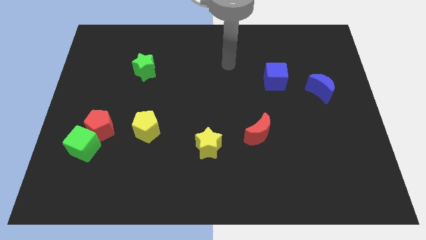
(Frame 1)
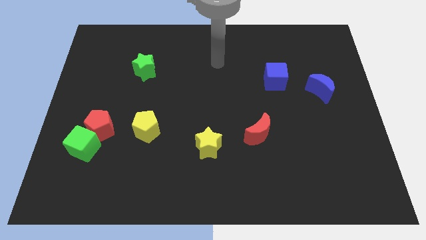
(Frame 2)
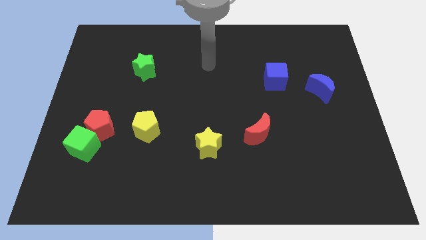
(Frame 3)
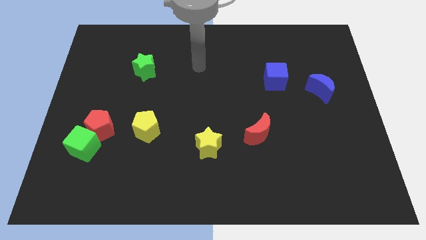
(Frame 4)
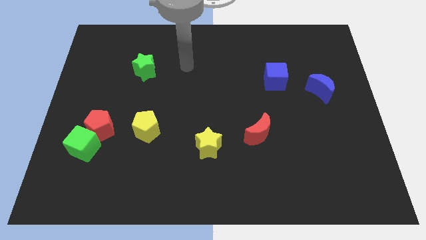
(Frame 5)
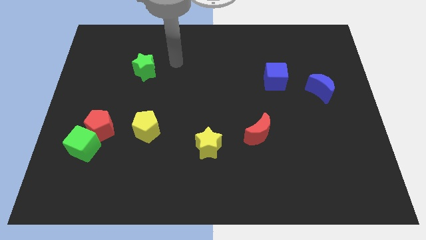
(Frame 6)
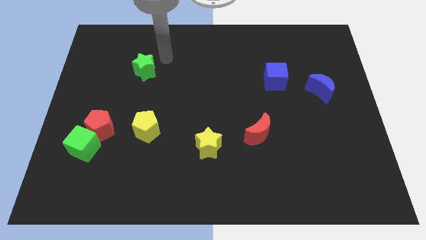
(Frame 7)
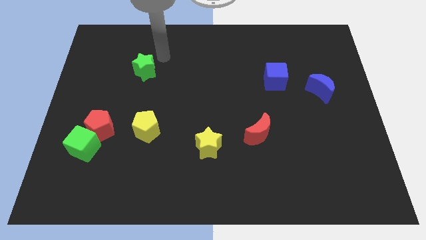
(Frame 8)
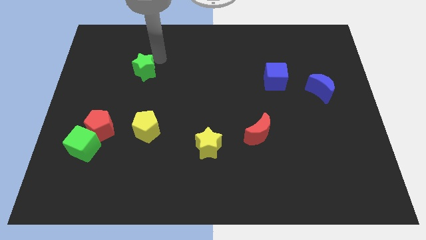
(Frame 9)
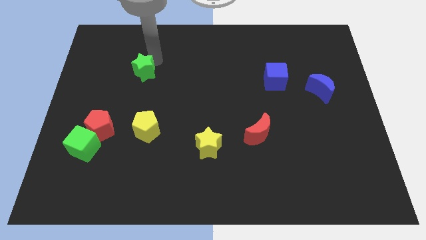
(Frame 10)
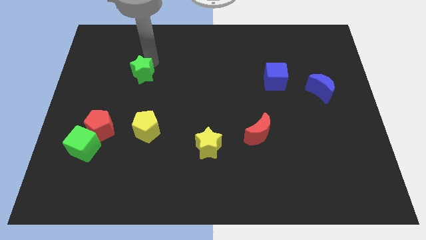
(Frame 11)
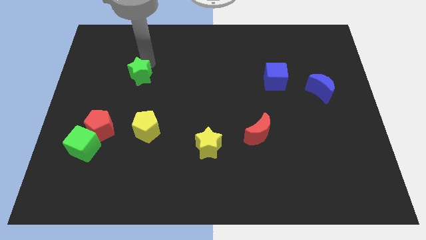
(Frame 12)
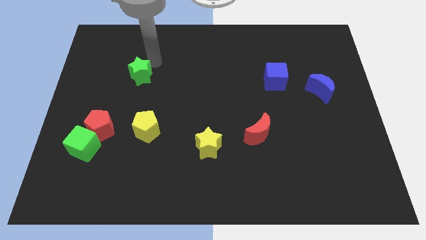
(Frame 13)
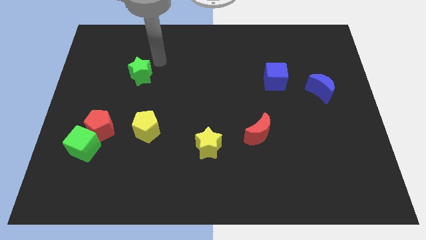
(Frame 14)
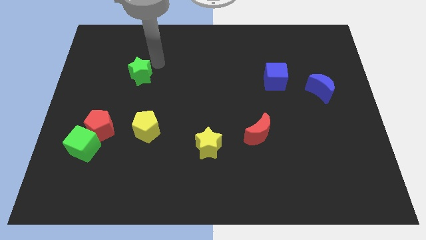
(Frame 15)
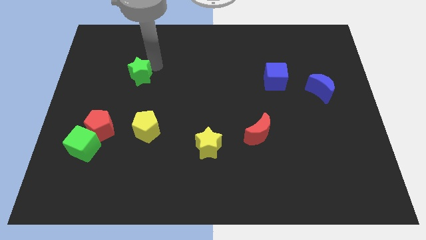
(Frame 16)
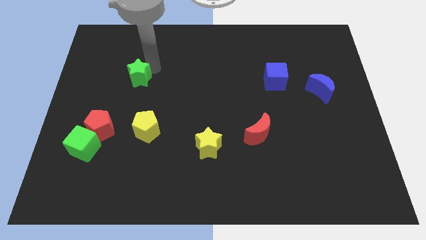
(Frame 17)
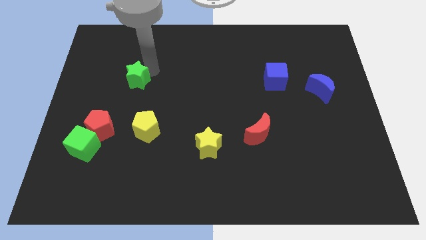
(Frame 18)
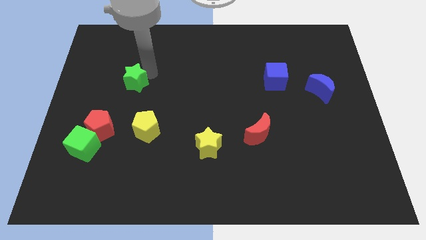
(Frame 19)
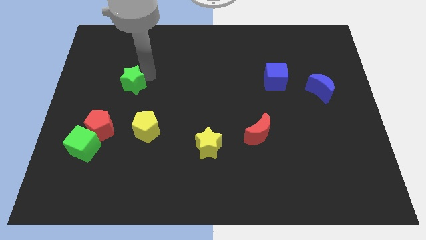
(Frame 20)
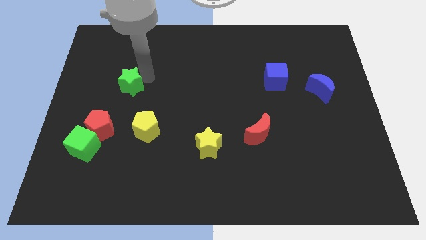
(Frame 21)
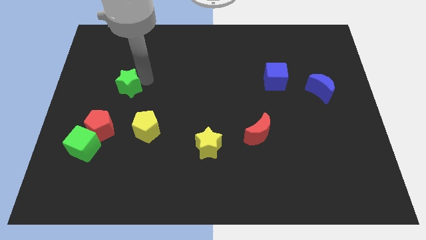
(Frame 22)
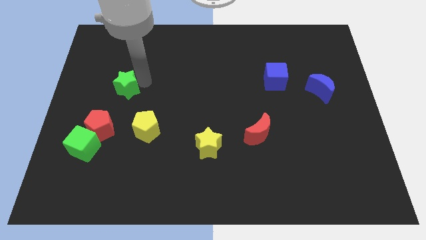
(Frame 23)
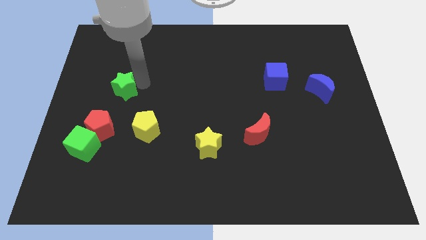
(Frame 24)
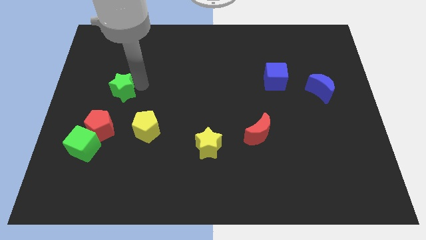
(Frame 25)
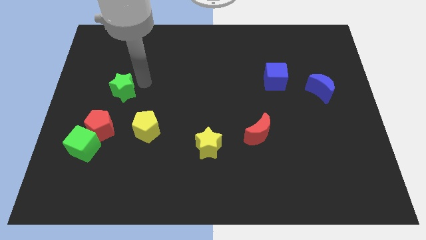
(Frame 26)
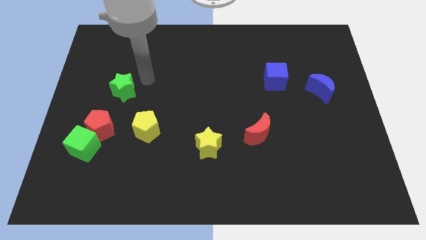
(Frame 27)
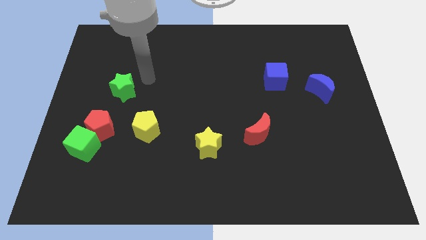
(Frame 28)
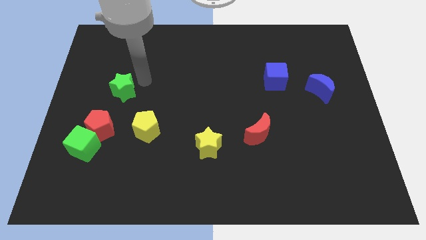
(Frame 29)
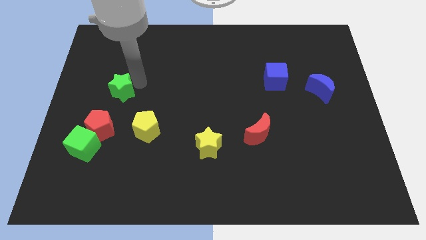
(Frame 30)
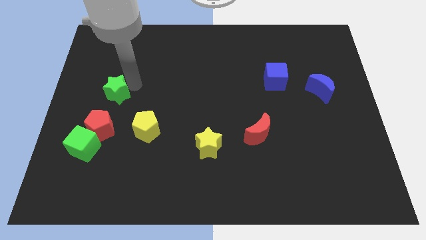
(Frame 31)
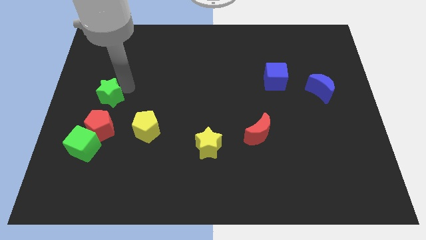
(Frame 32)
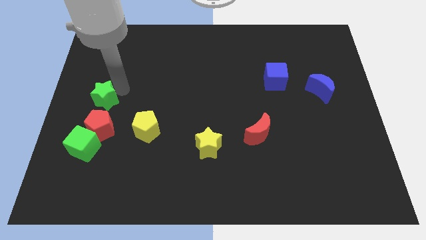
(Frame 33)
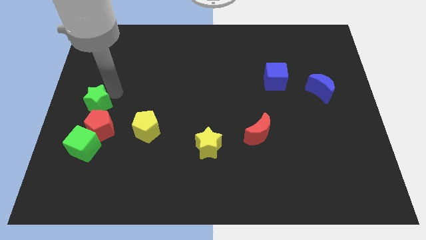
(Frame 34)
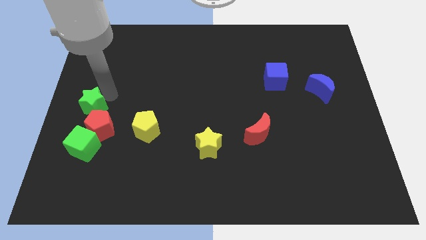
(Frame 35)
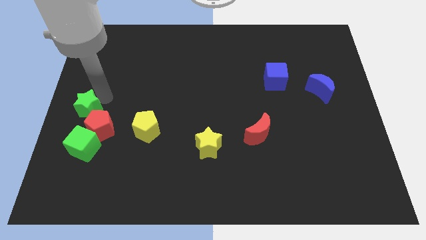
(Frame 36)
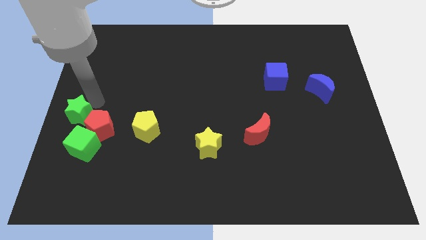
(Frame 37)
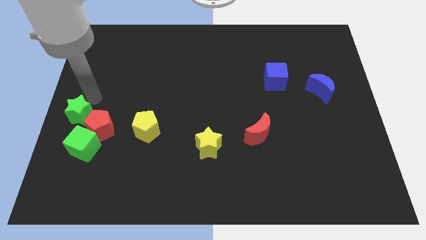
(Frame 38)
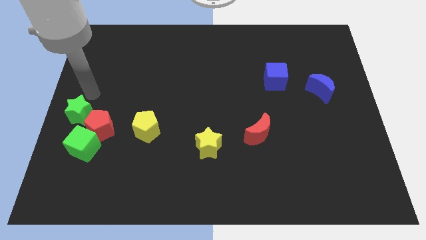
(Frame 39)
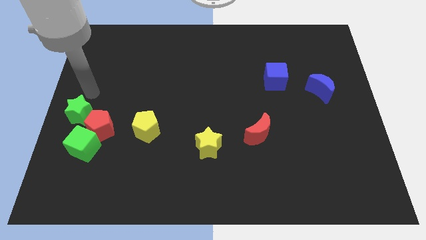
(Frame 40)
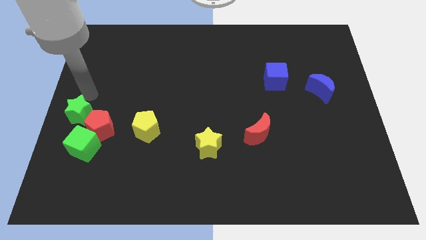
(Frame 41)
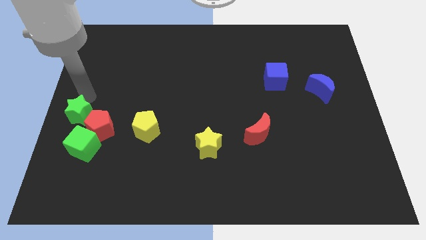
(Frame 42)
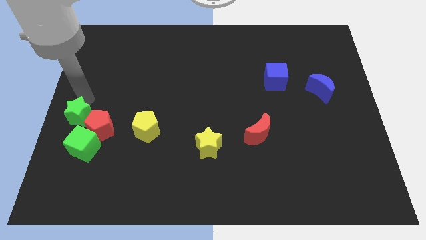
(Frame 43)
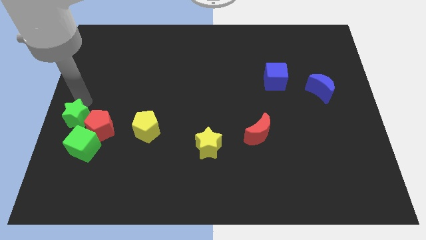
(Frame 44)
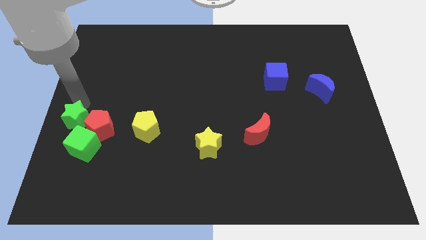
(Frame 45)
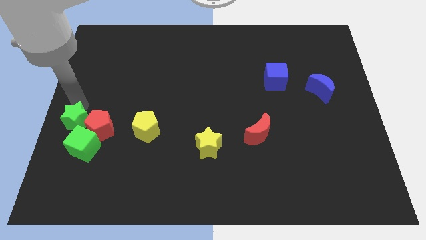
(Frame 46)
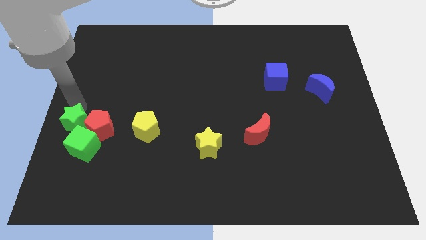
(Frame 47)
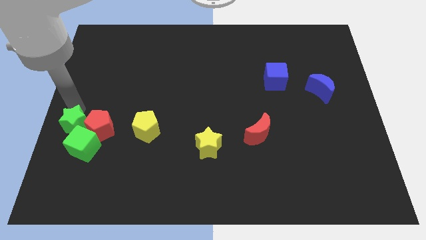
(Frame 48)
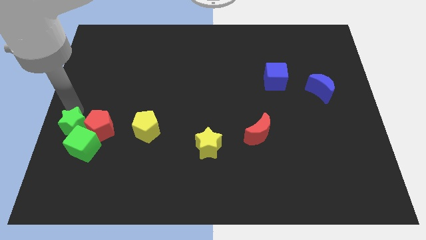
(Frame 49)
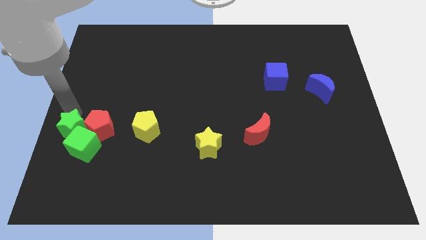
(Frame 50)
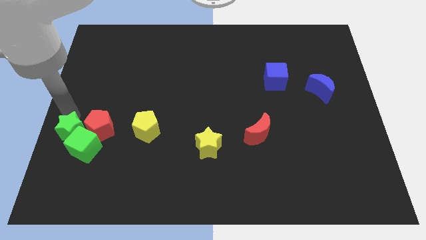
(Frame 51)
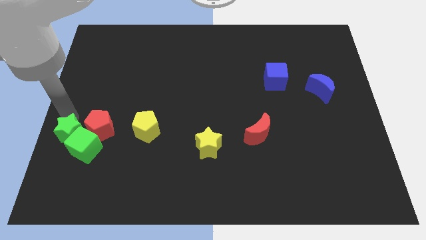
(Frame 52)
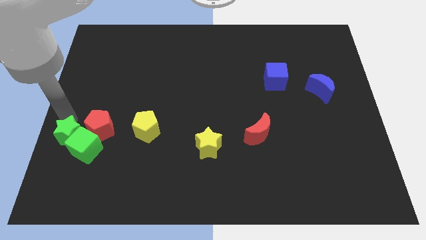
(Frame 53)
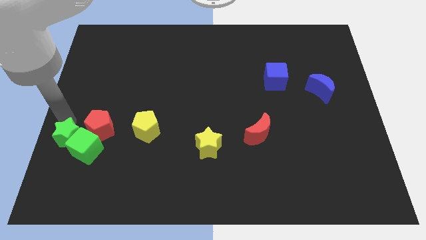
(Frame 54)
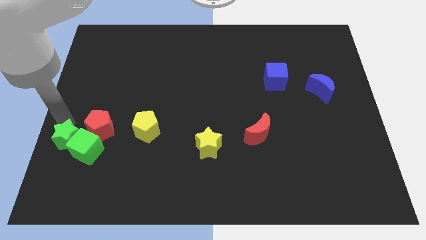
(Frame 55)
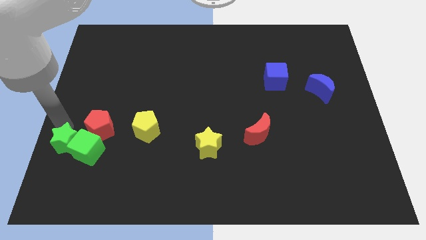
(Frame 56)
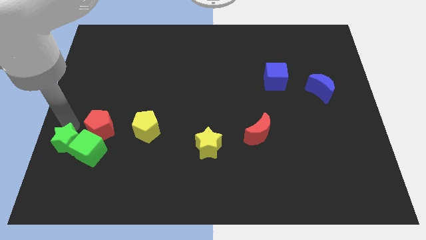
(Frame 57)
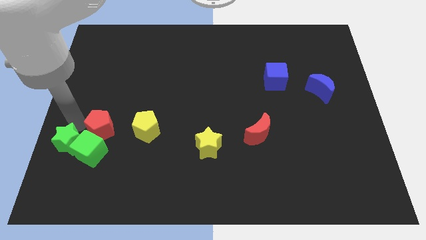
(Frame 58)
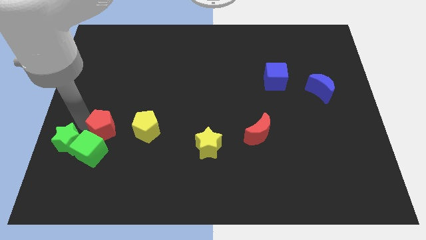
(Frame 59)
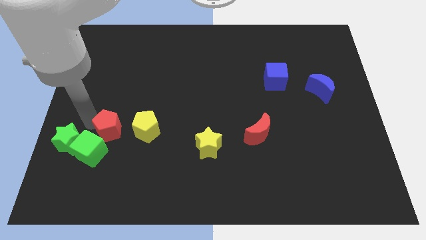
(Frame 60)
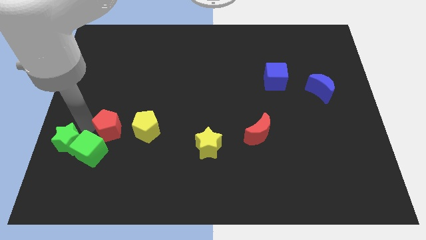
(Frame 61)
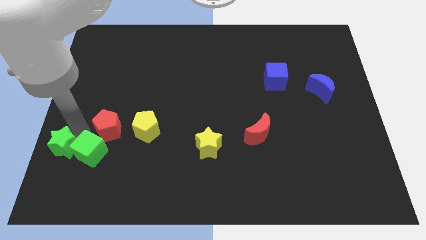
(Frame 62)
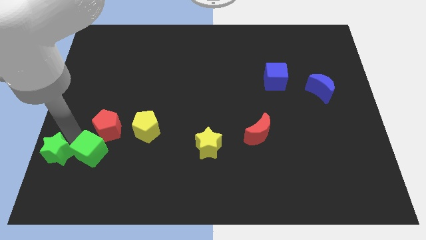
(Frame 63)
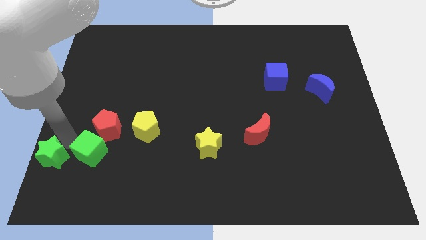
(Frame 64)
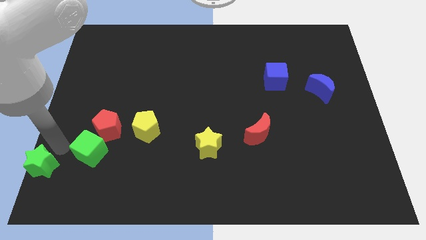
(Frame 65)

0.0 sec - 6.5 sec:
slide the green star to the lower left corner
